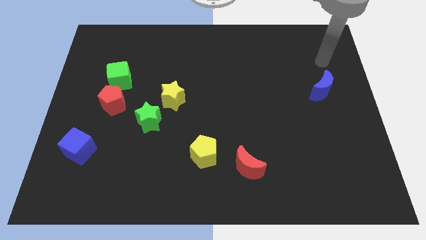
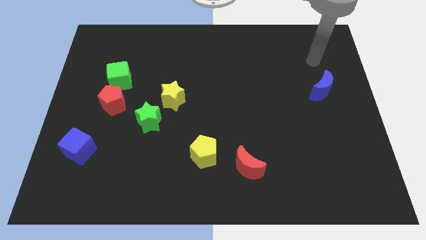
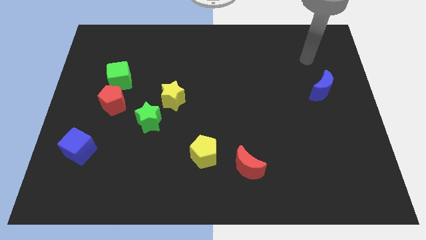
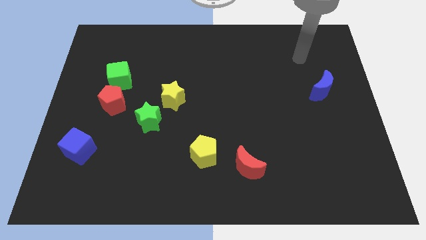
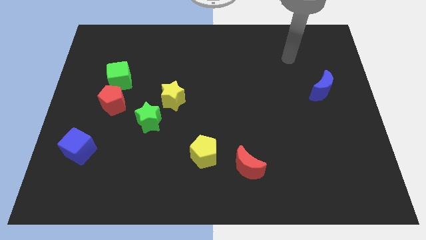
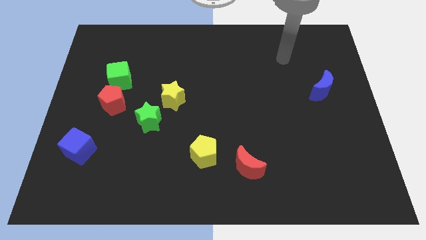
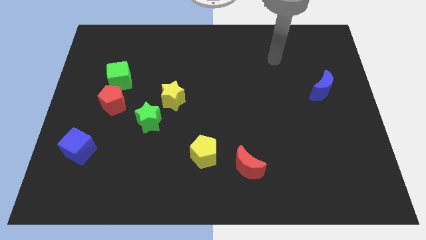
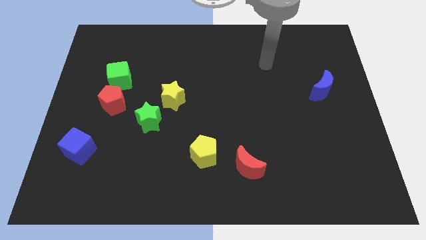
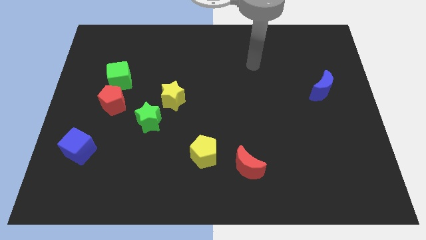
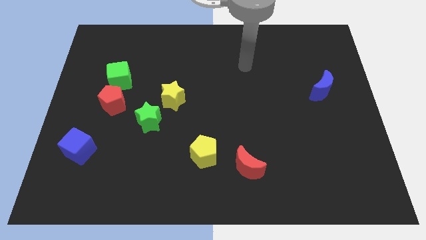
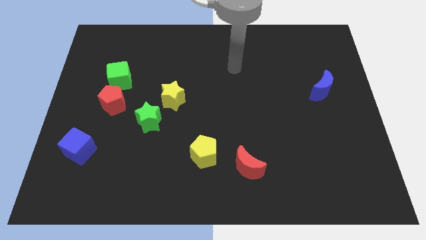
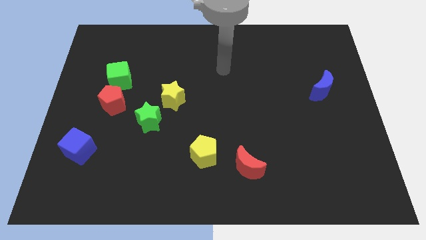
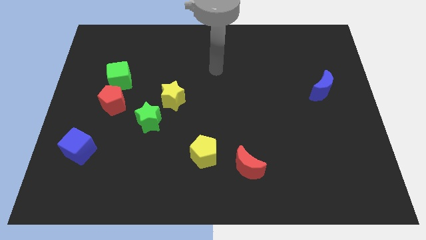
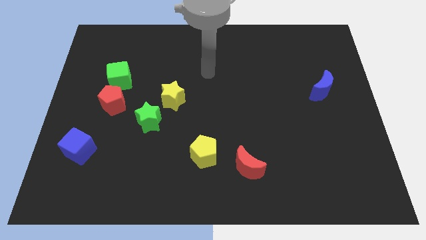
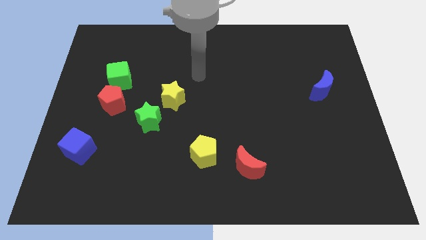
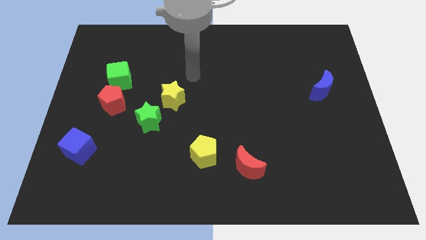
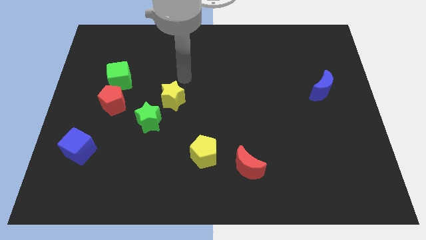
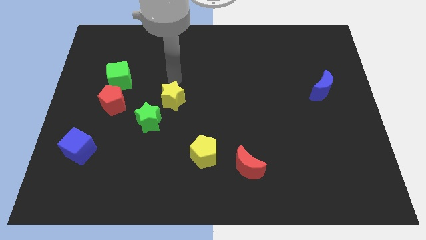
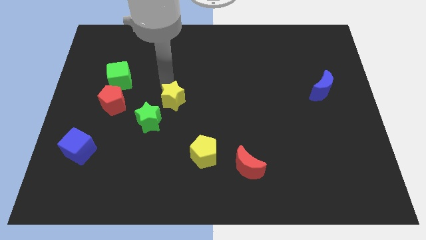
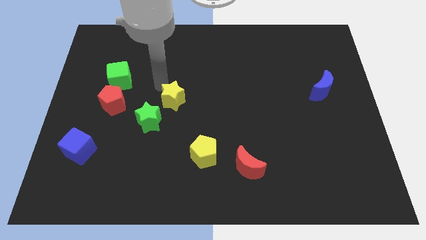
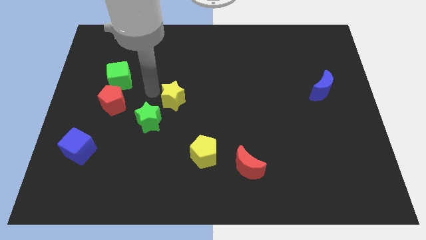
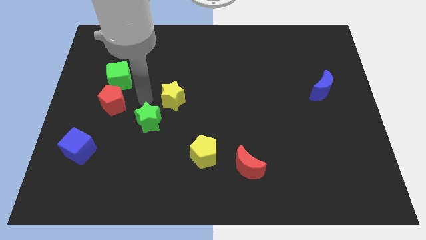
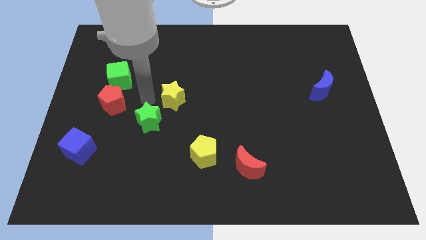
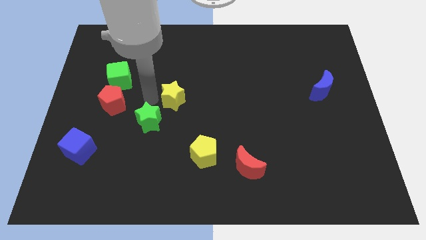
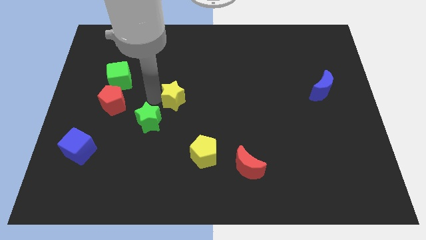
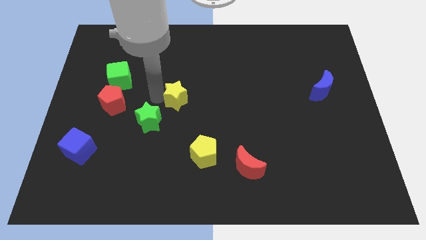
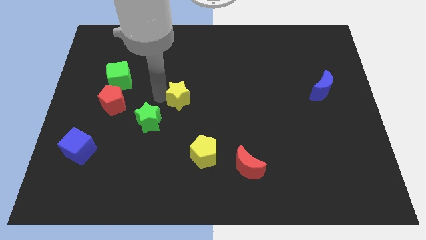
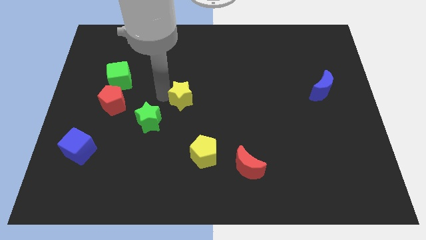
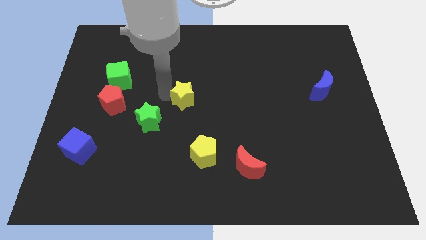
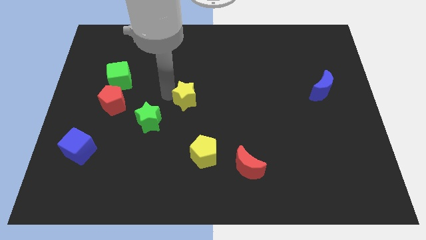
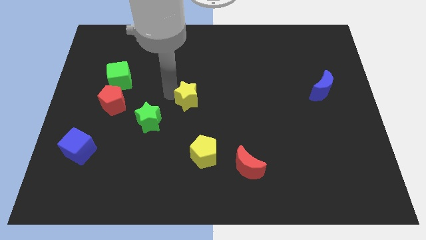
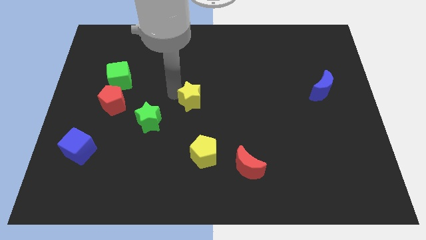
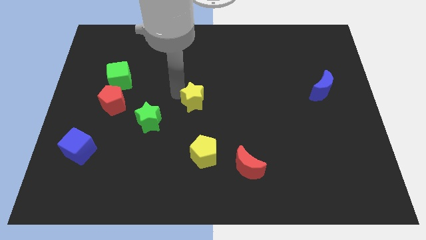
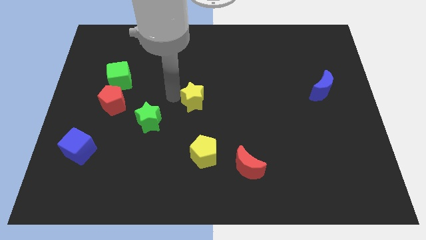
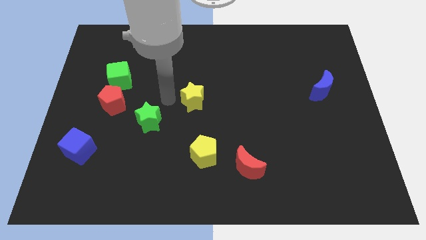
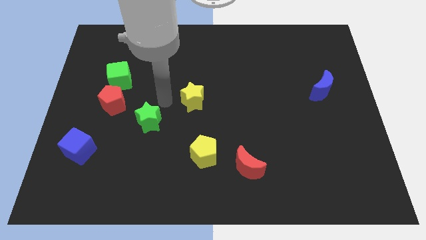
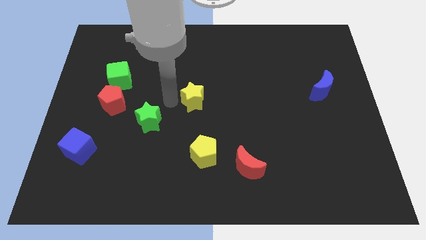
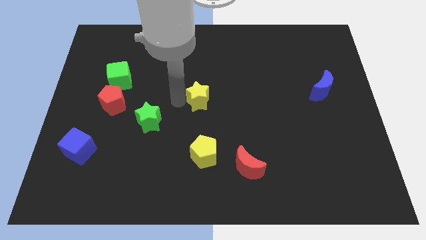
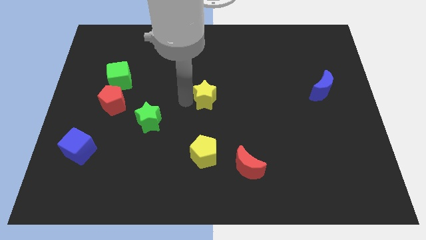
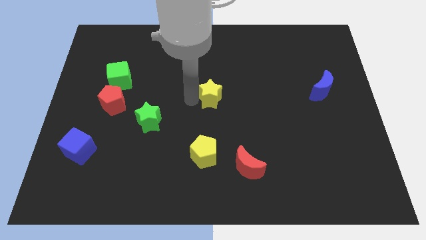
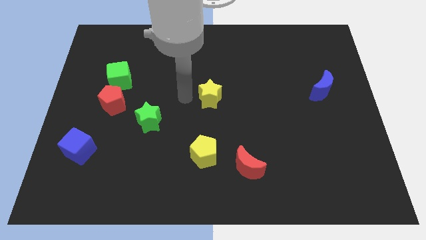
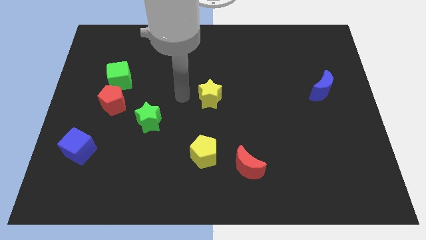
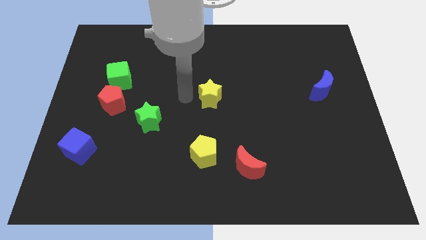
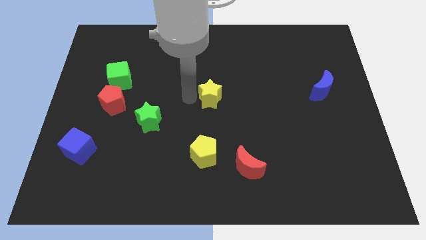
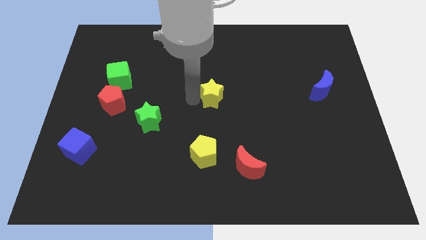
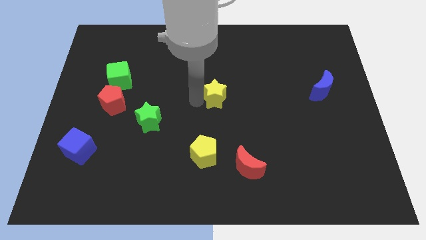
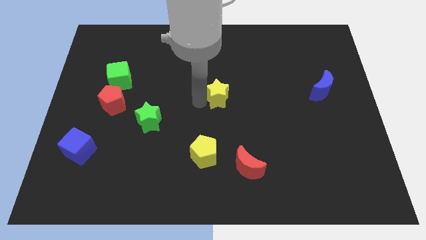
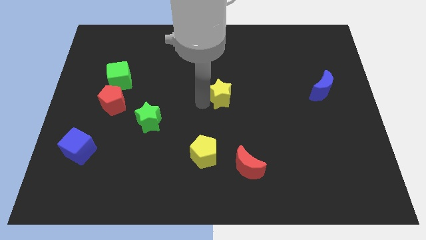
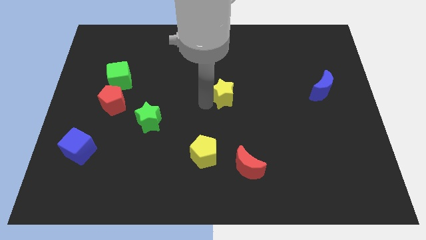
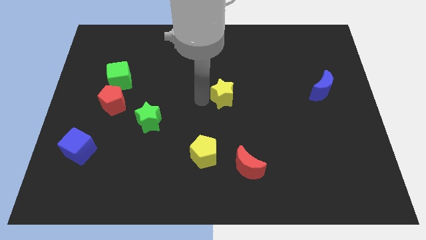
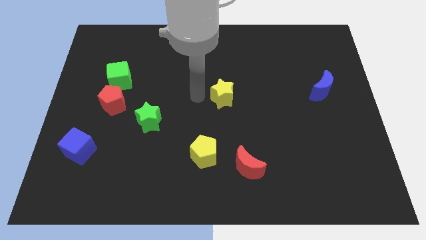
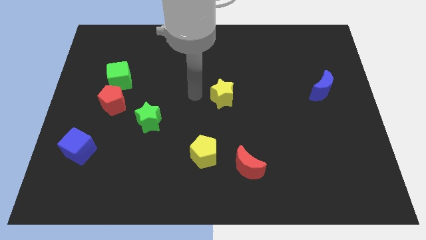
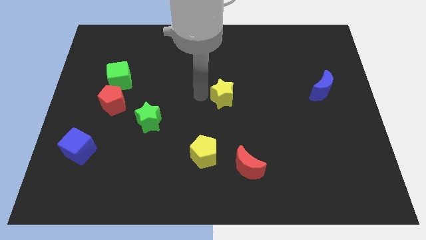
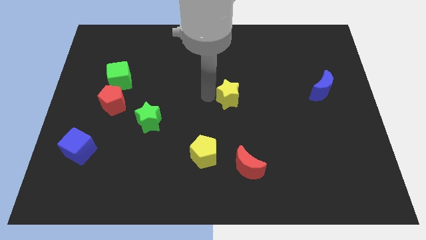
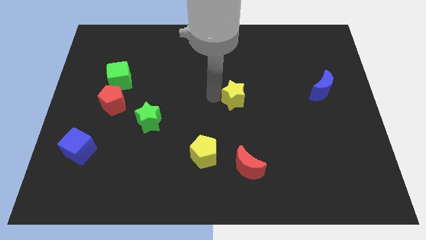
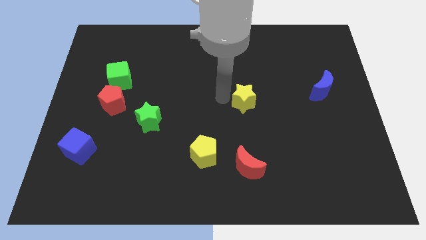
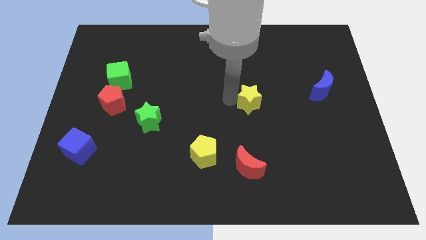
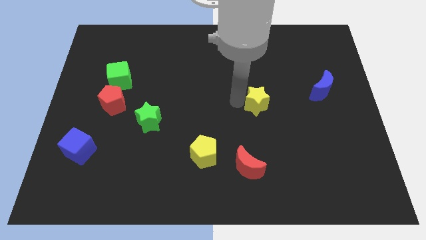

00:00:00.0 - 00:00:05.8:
slide the yellow star right

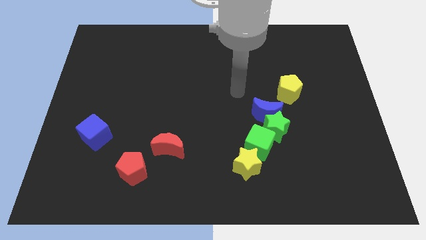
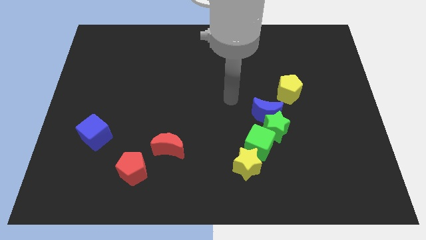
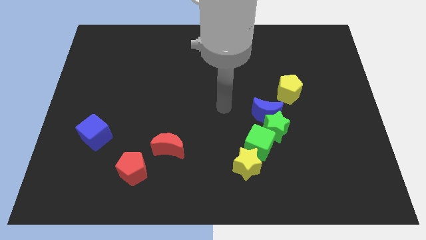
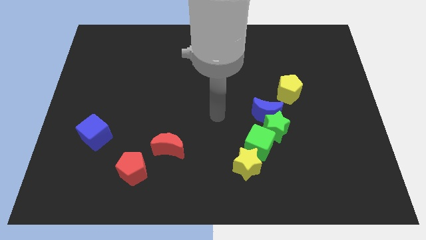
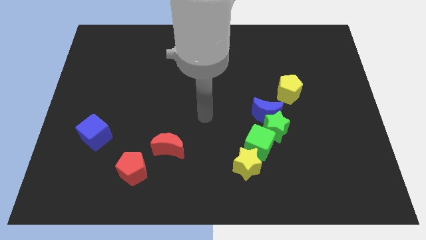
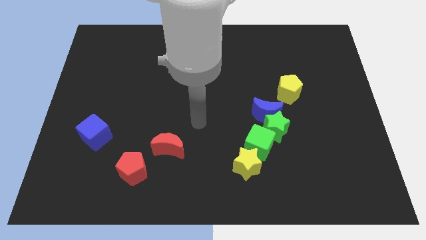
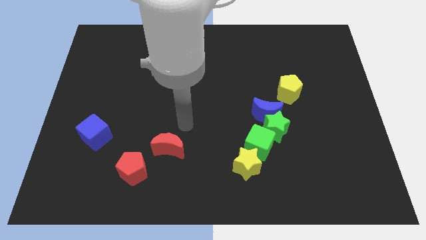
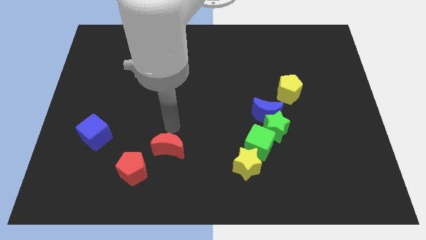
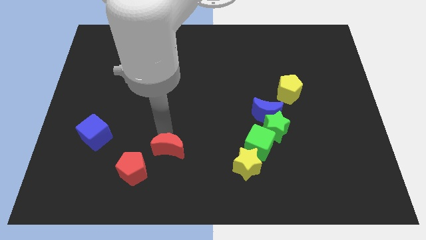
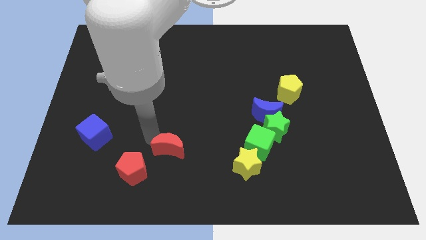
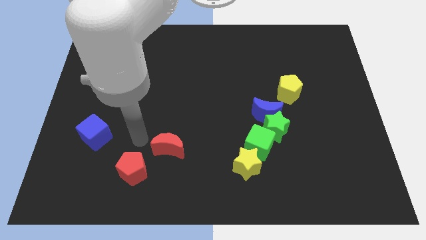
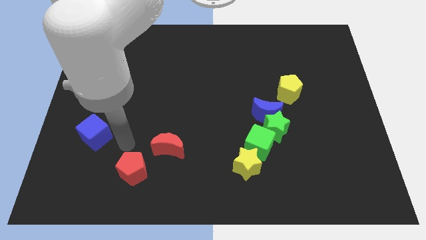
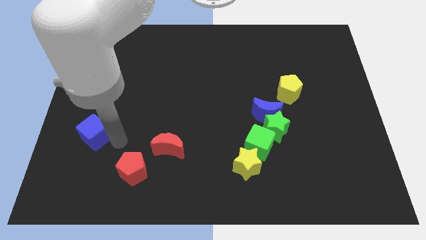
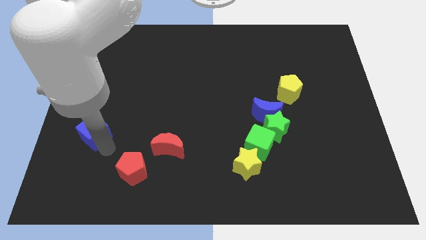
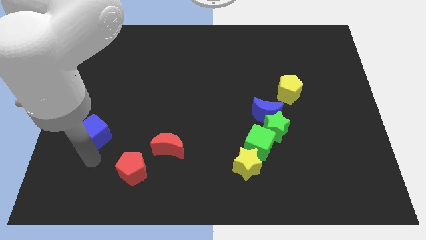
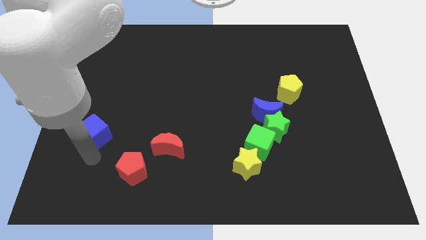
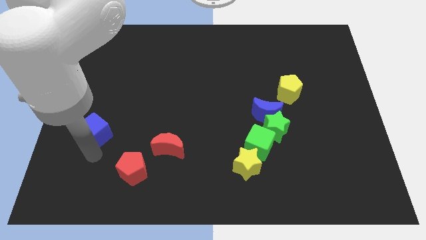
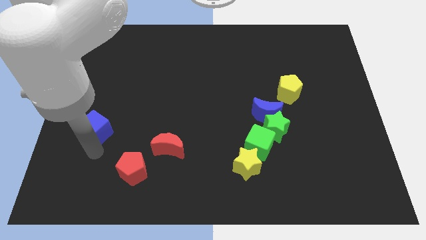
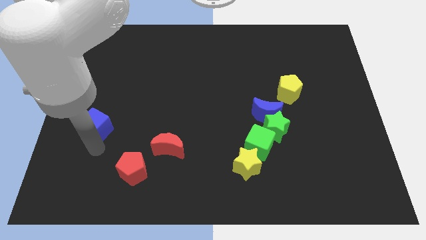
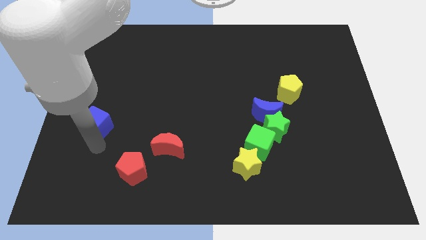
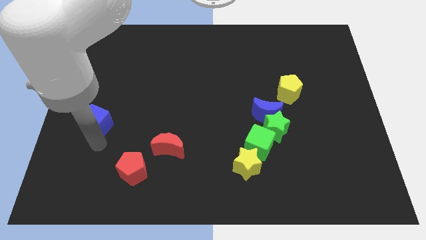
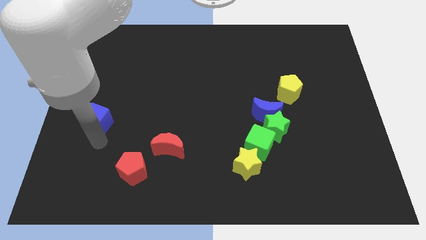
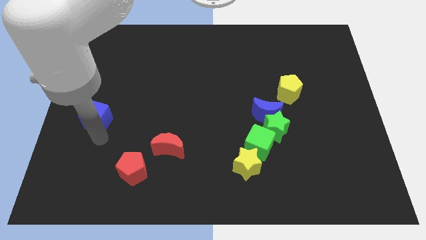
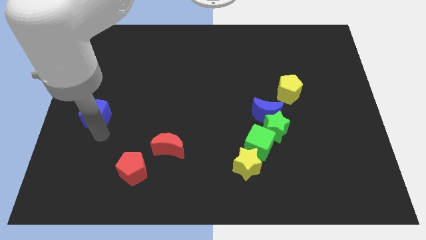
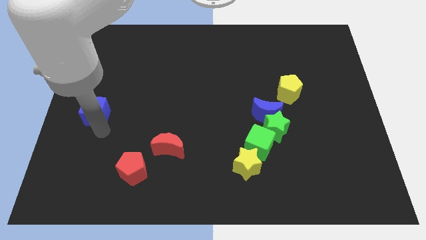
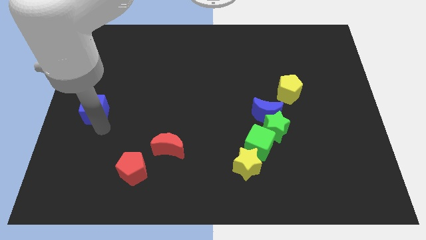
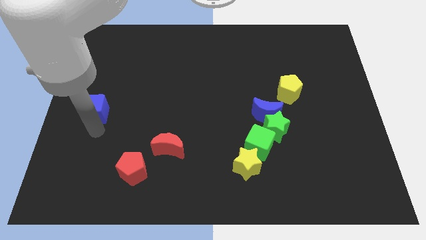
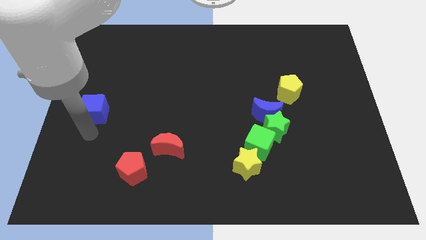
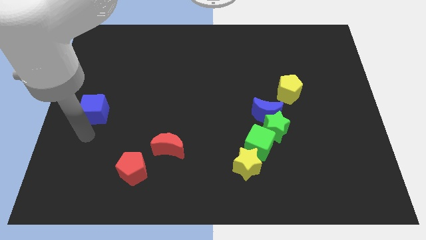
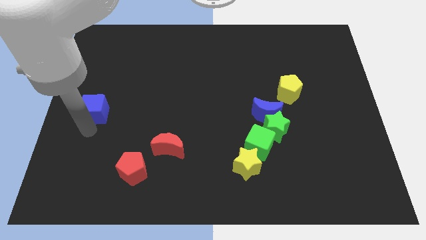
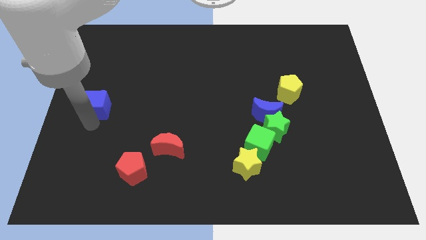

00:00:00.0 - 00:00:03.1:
slide the blue cube a little bit upwards
